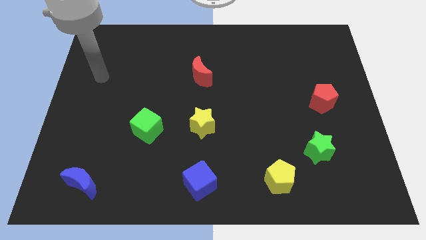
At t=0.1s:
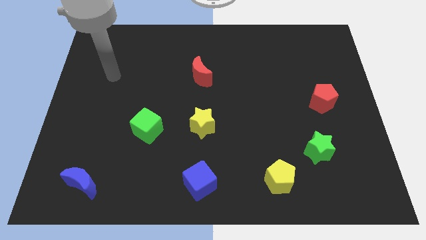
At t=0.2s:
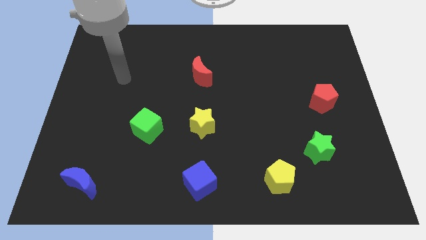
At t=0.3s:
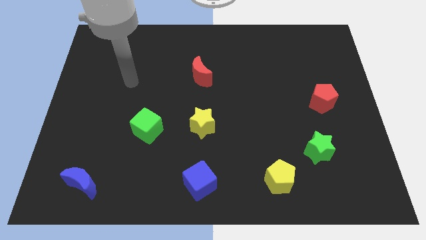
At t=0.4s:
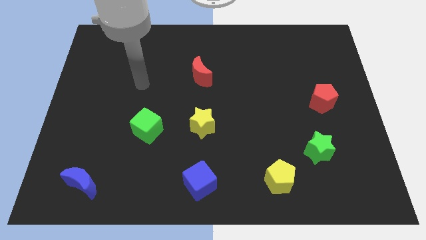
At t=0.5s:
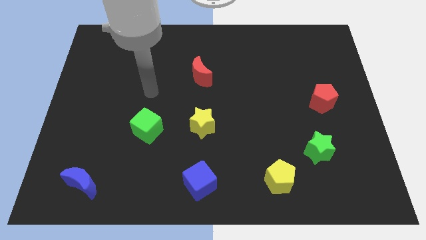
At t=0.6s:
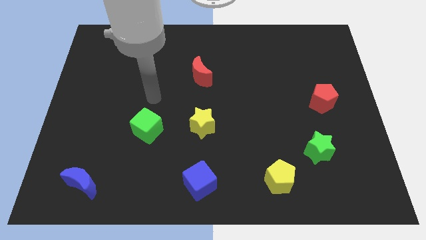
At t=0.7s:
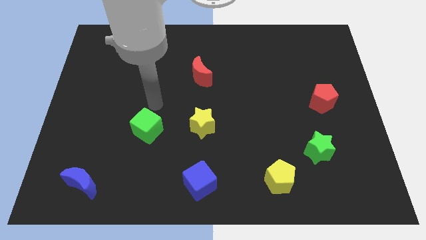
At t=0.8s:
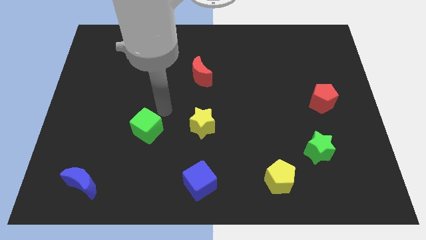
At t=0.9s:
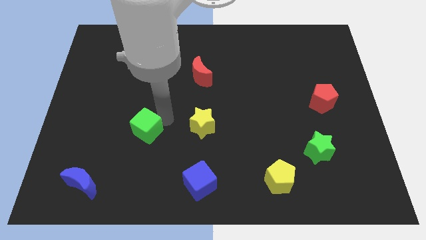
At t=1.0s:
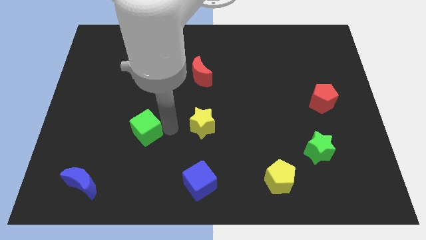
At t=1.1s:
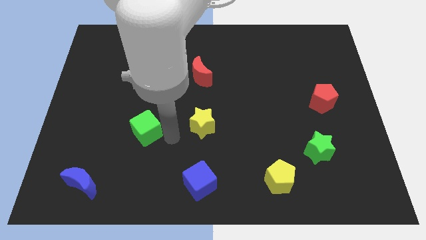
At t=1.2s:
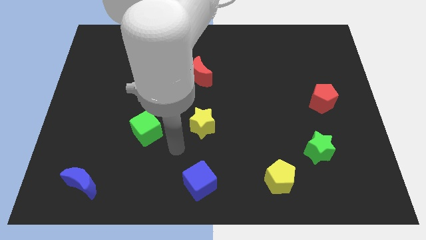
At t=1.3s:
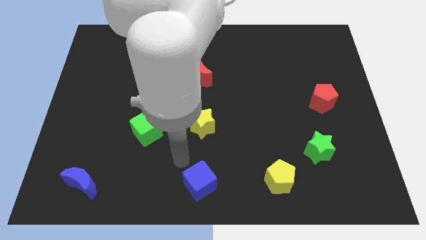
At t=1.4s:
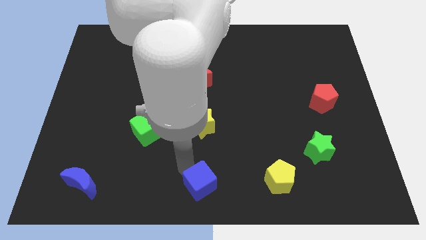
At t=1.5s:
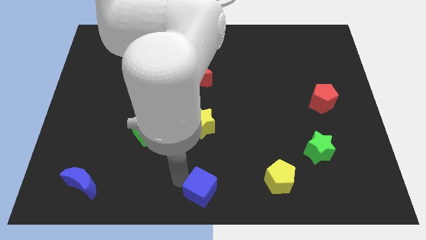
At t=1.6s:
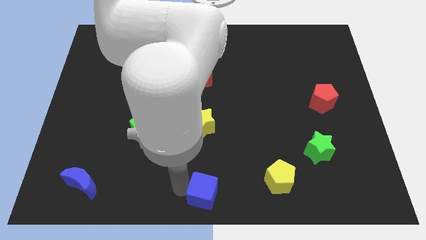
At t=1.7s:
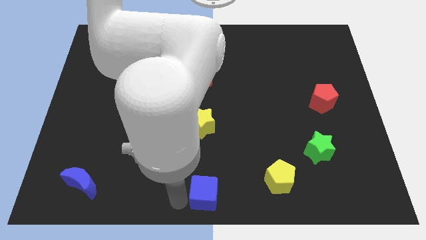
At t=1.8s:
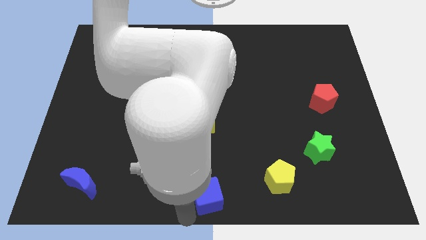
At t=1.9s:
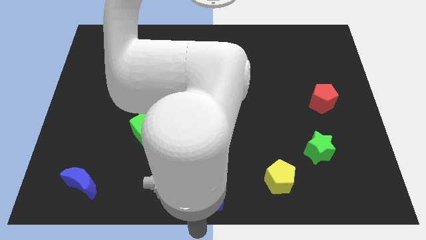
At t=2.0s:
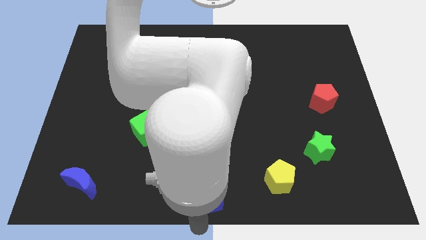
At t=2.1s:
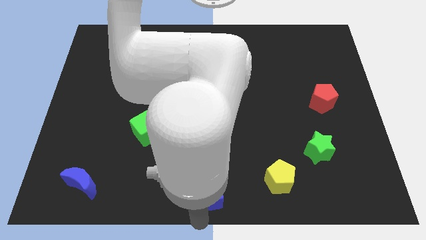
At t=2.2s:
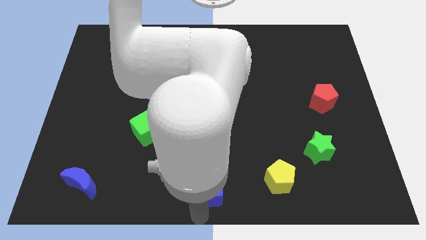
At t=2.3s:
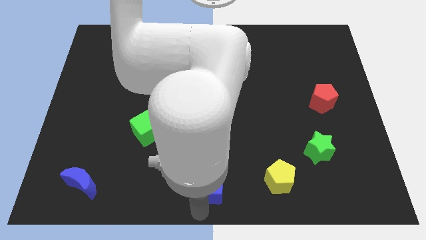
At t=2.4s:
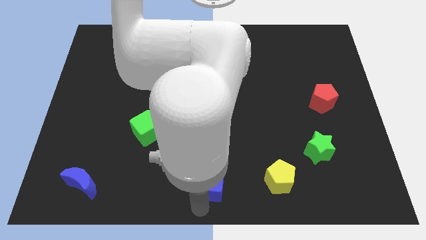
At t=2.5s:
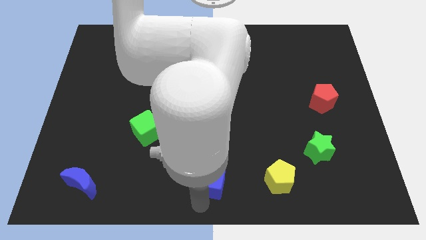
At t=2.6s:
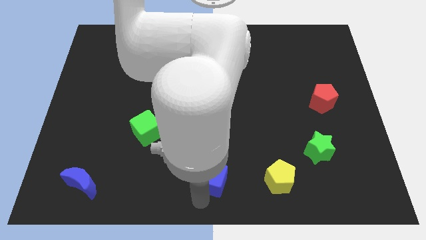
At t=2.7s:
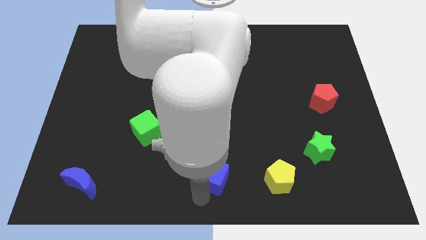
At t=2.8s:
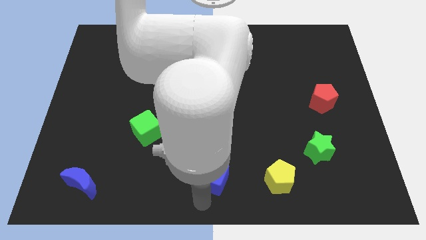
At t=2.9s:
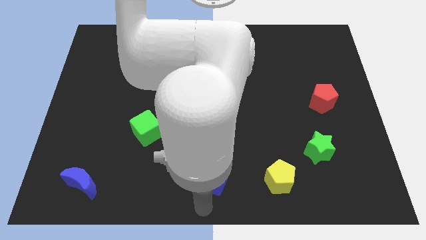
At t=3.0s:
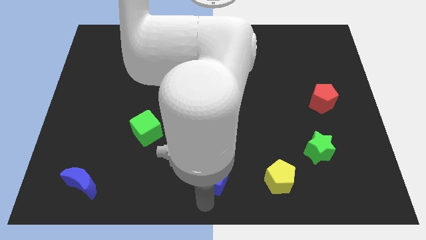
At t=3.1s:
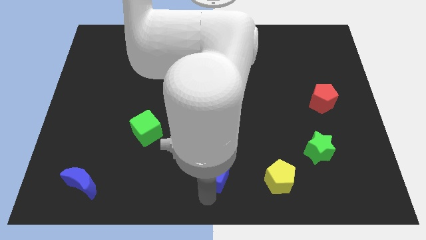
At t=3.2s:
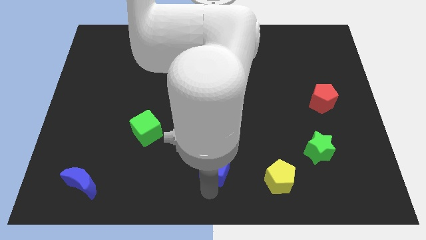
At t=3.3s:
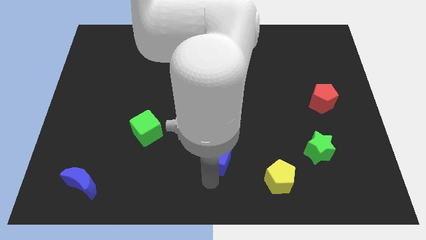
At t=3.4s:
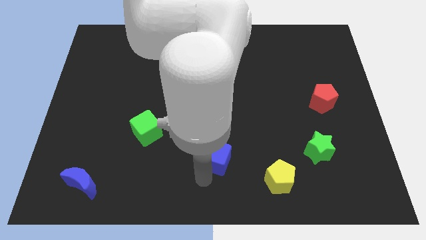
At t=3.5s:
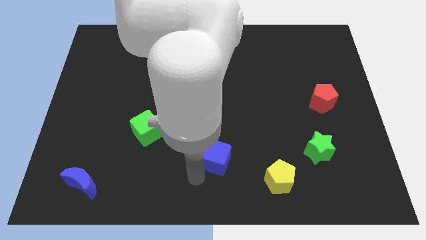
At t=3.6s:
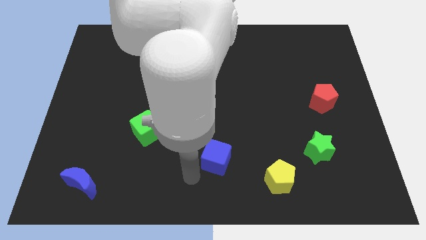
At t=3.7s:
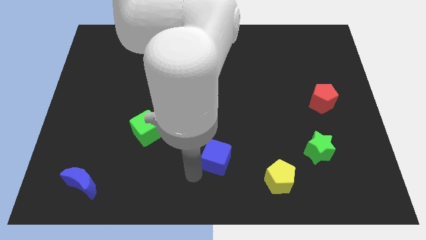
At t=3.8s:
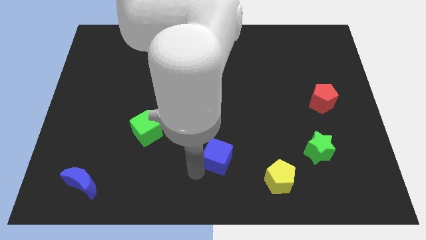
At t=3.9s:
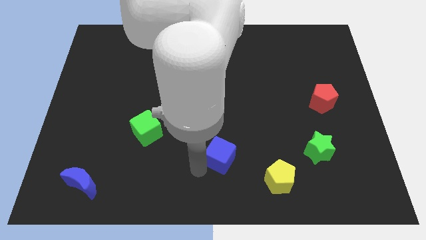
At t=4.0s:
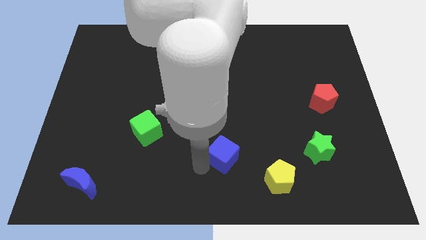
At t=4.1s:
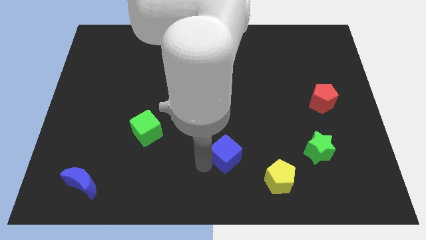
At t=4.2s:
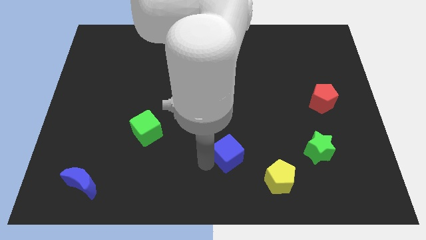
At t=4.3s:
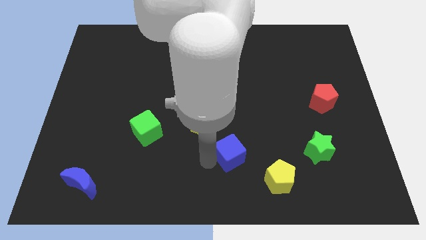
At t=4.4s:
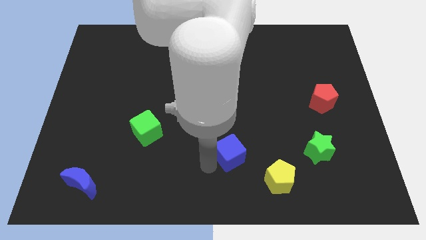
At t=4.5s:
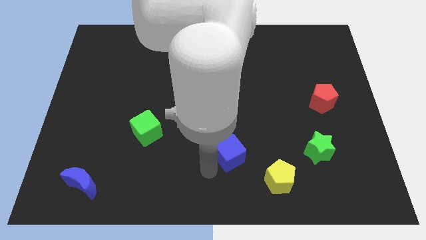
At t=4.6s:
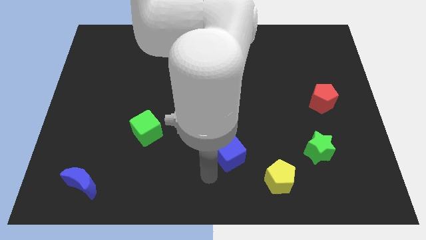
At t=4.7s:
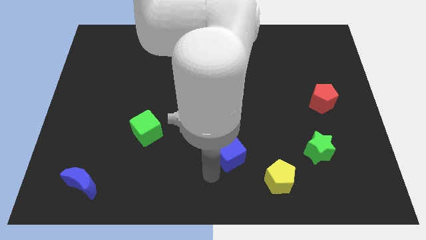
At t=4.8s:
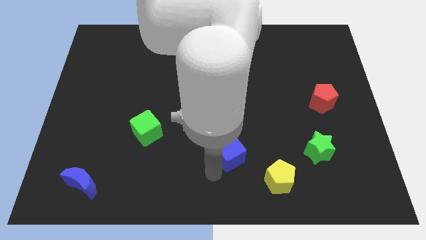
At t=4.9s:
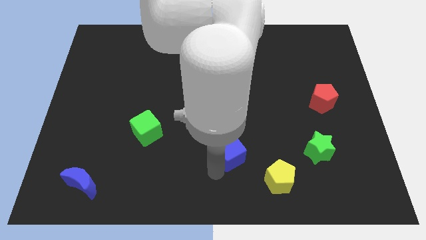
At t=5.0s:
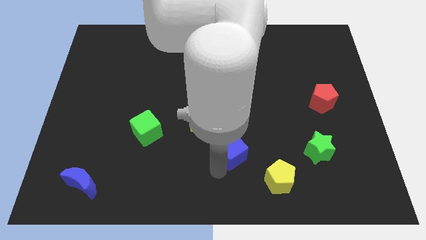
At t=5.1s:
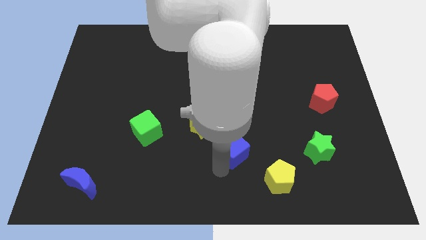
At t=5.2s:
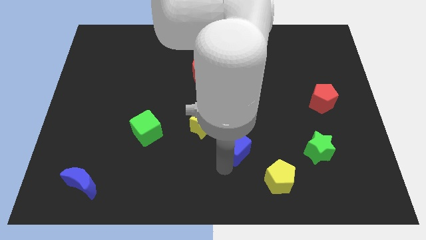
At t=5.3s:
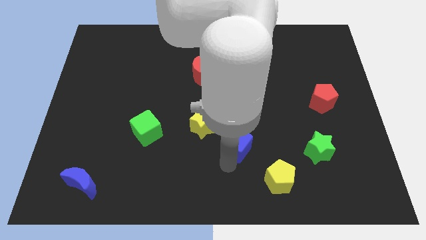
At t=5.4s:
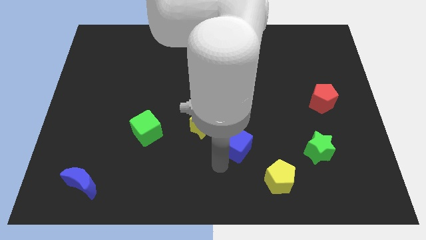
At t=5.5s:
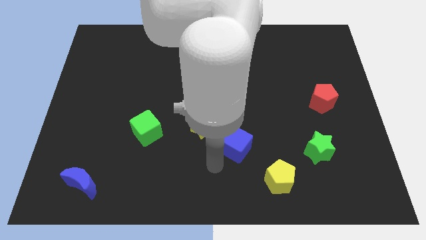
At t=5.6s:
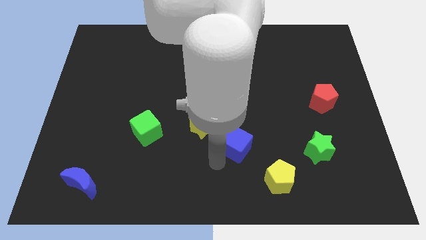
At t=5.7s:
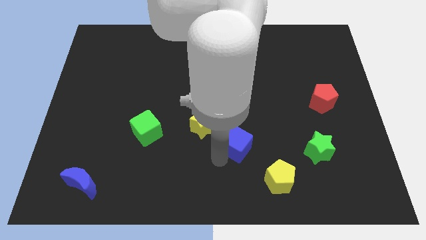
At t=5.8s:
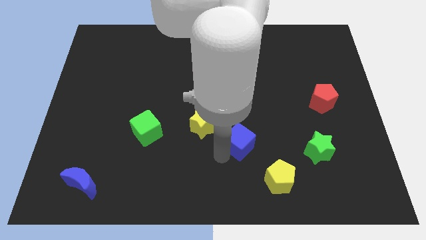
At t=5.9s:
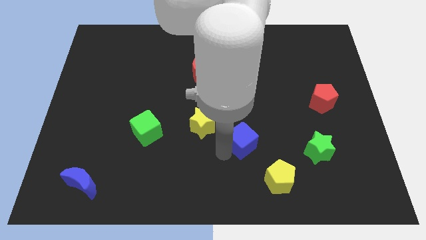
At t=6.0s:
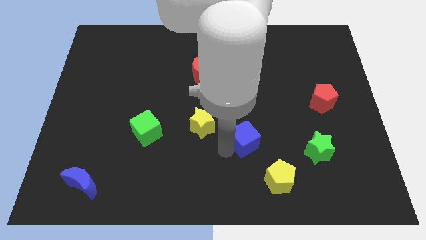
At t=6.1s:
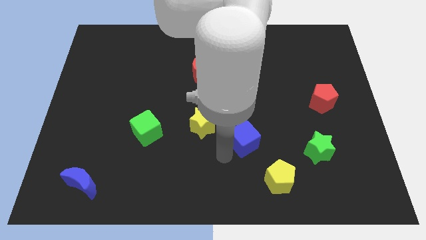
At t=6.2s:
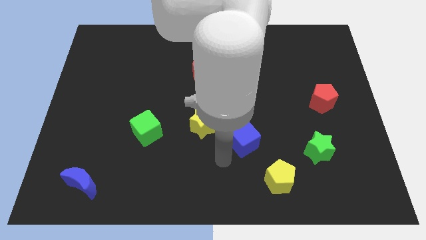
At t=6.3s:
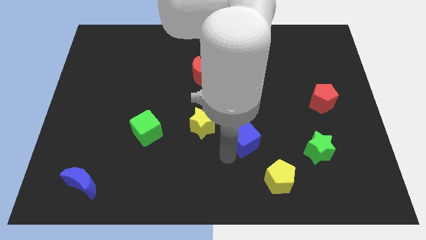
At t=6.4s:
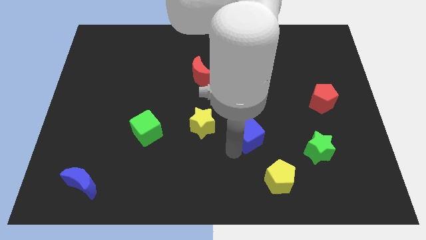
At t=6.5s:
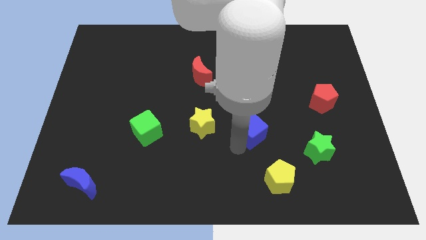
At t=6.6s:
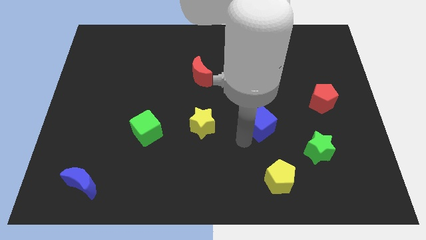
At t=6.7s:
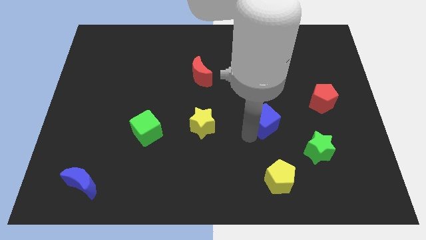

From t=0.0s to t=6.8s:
push the blue cube diagonally upwards and right

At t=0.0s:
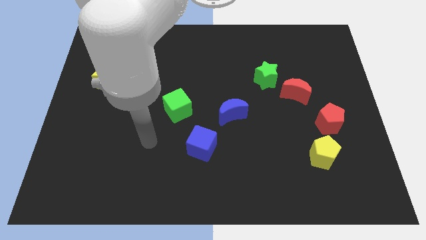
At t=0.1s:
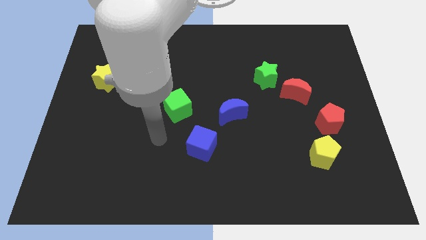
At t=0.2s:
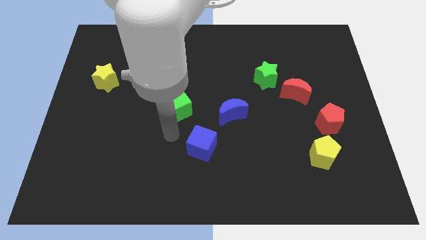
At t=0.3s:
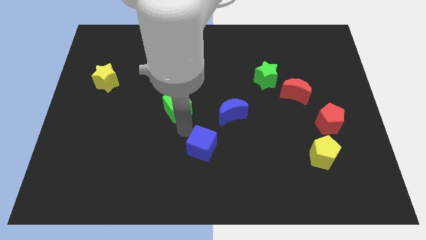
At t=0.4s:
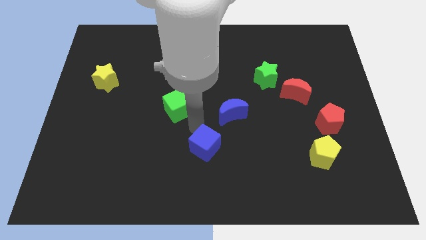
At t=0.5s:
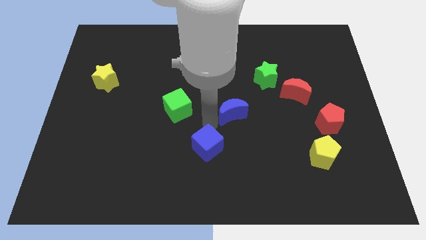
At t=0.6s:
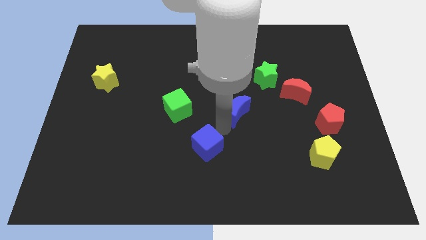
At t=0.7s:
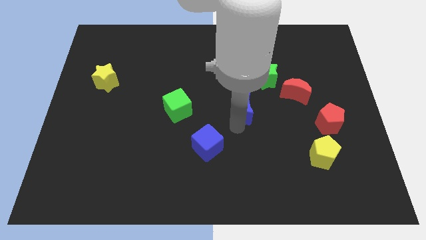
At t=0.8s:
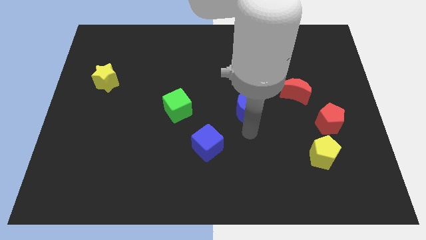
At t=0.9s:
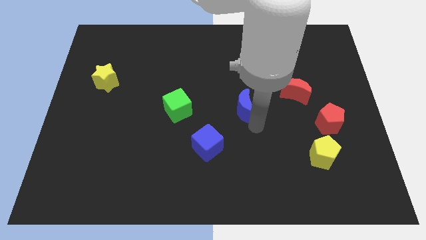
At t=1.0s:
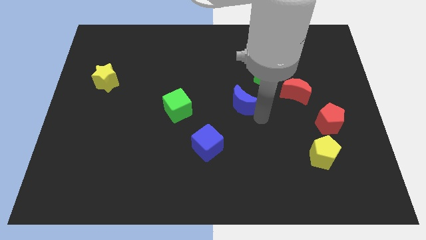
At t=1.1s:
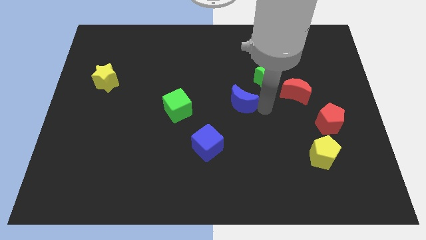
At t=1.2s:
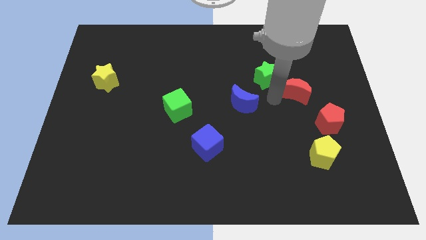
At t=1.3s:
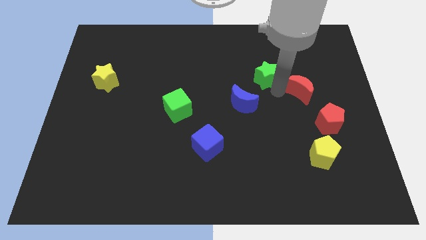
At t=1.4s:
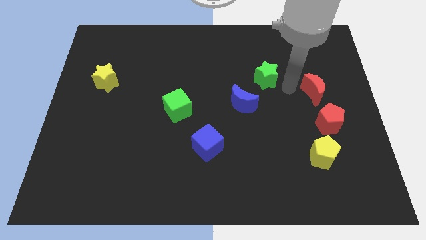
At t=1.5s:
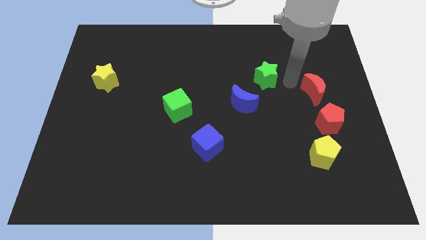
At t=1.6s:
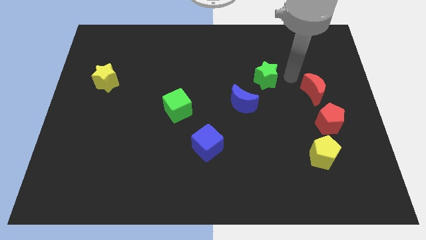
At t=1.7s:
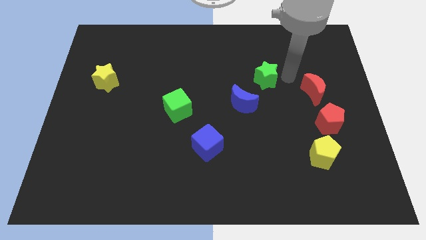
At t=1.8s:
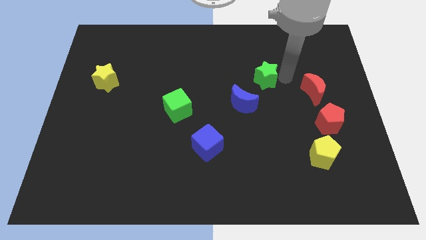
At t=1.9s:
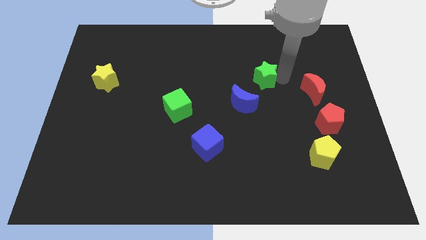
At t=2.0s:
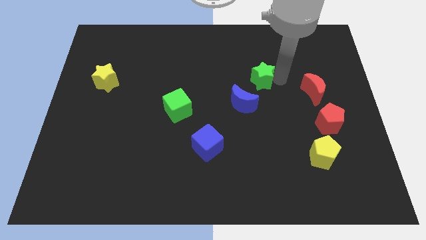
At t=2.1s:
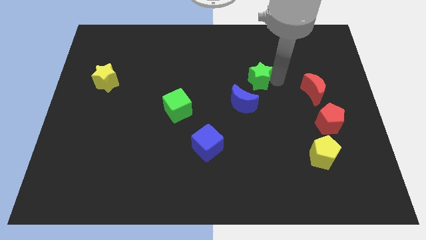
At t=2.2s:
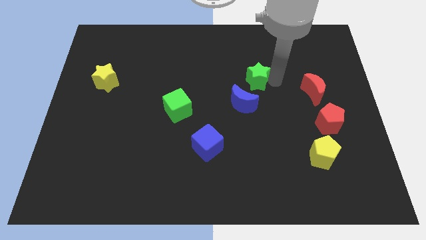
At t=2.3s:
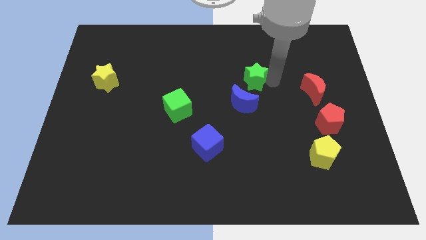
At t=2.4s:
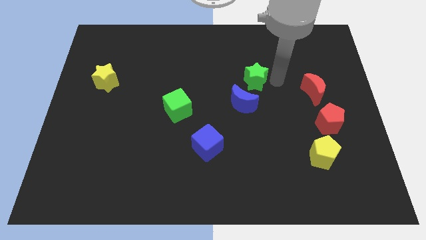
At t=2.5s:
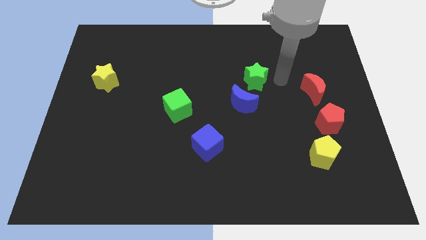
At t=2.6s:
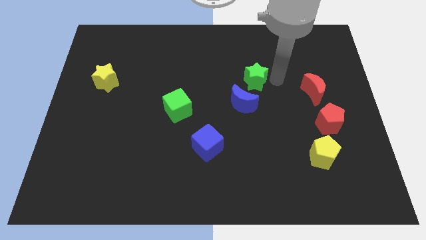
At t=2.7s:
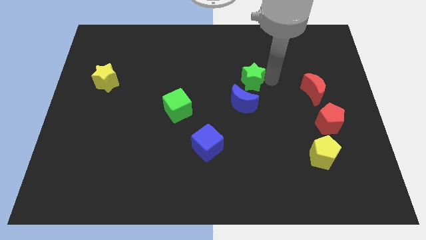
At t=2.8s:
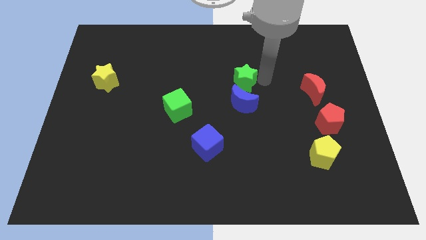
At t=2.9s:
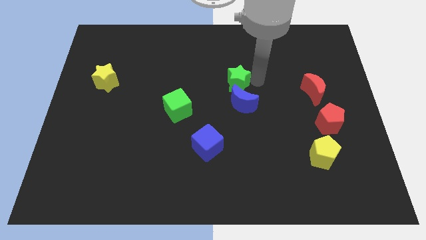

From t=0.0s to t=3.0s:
move the green star slightly left
